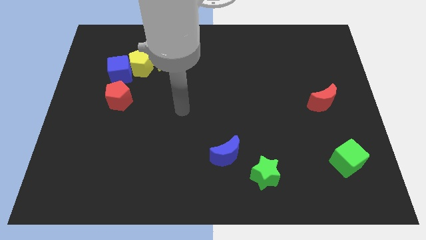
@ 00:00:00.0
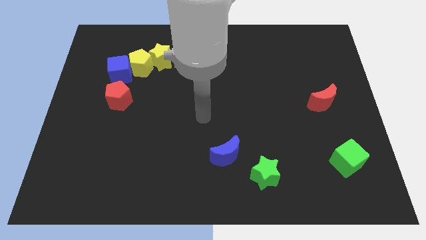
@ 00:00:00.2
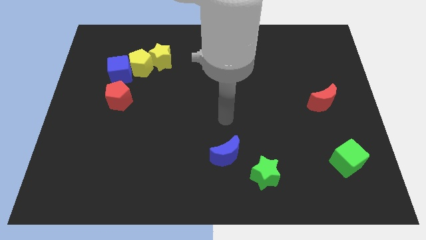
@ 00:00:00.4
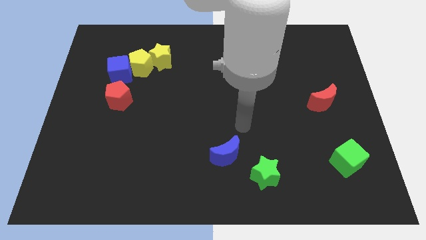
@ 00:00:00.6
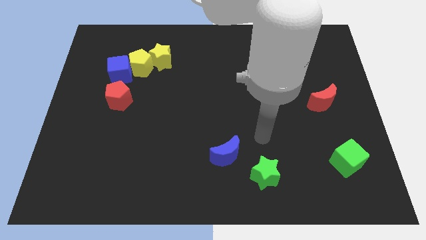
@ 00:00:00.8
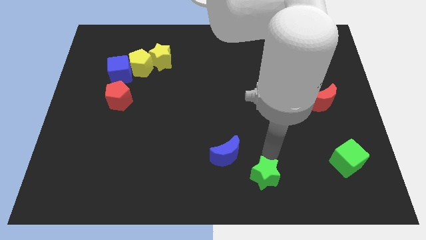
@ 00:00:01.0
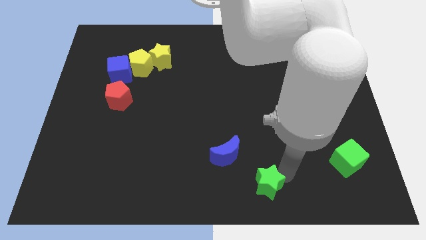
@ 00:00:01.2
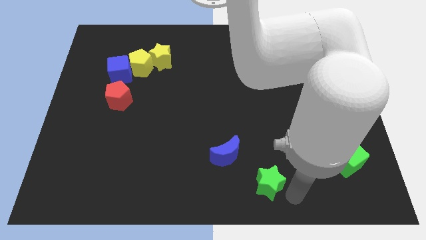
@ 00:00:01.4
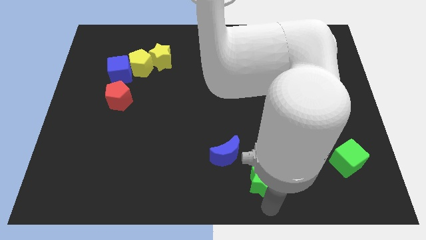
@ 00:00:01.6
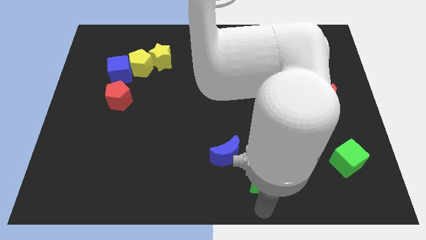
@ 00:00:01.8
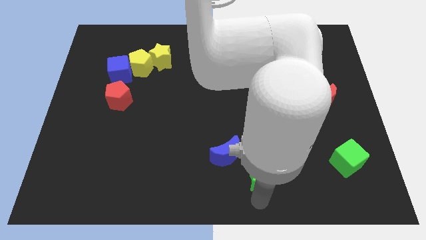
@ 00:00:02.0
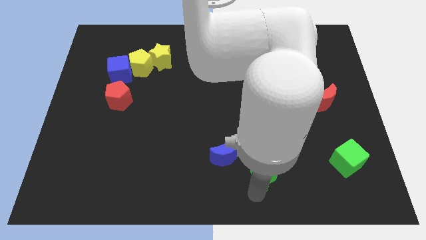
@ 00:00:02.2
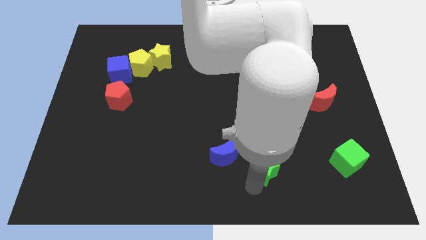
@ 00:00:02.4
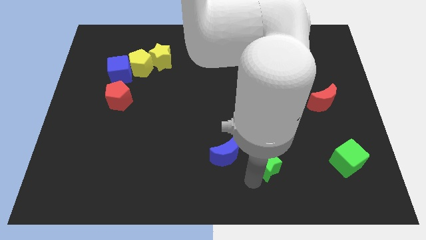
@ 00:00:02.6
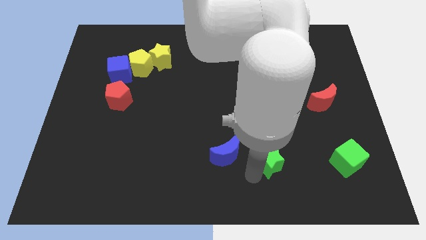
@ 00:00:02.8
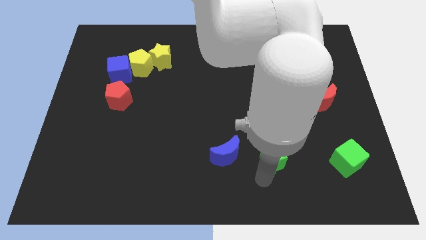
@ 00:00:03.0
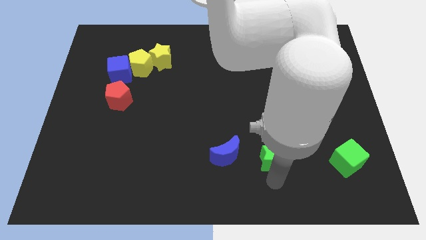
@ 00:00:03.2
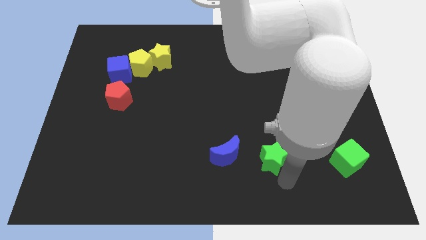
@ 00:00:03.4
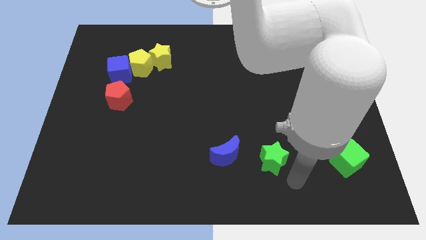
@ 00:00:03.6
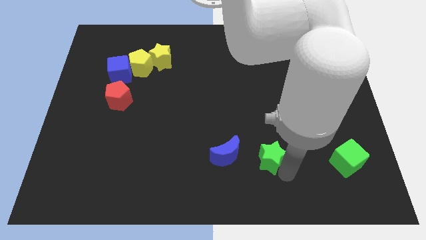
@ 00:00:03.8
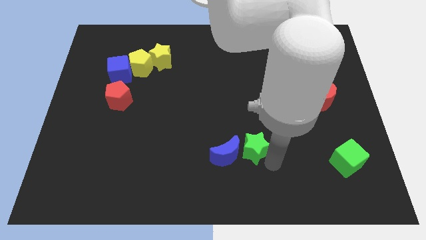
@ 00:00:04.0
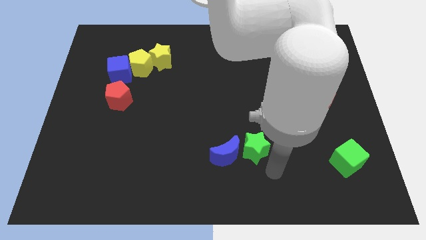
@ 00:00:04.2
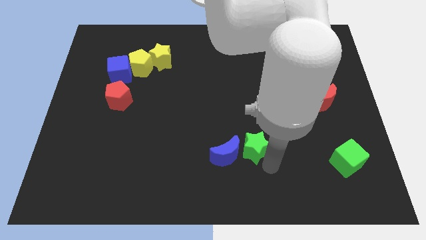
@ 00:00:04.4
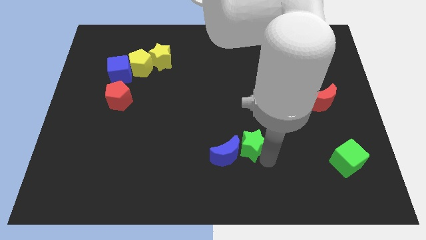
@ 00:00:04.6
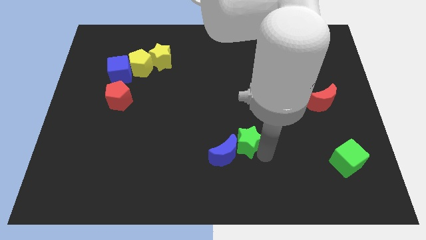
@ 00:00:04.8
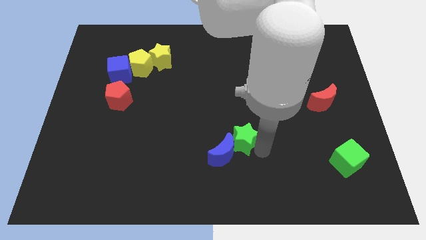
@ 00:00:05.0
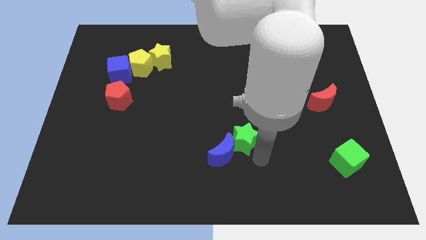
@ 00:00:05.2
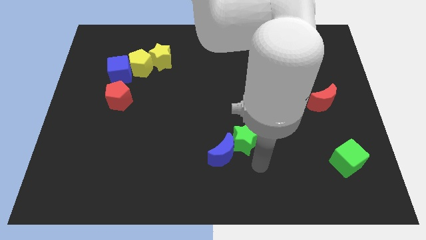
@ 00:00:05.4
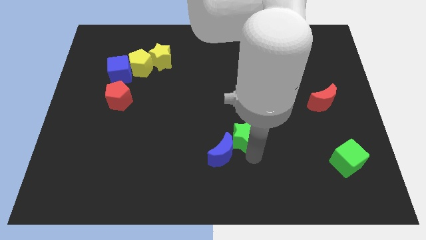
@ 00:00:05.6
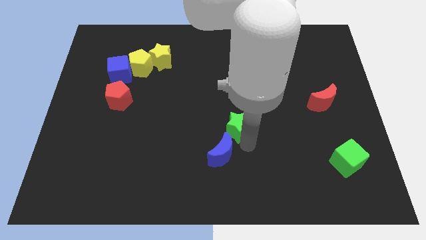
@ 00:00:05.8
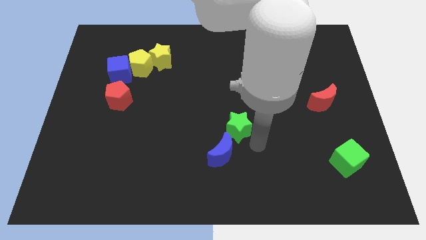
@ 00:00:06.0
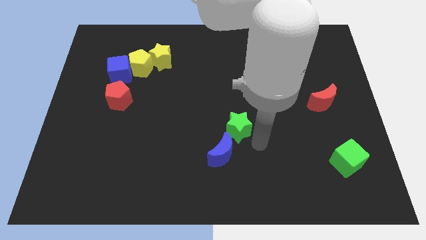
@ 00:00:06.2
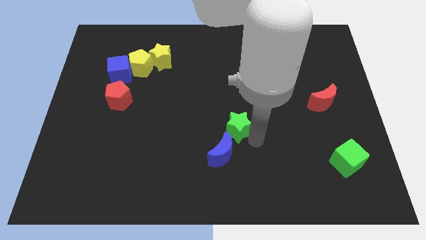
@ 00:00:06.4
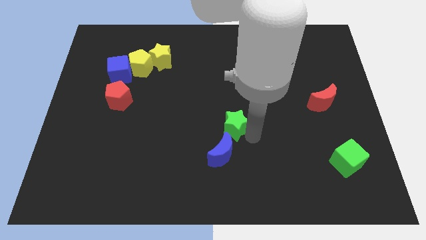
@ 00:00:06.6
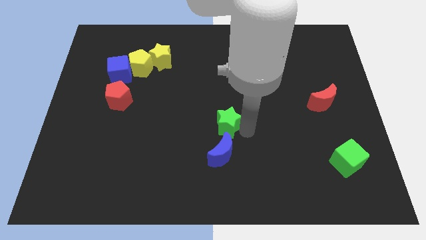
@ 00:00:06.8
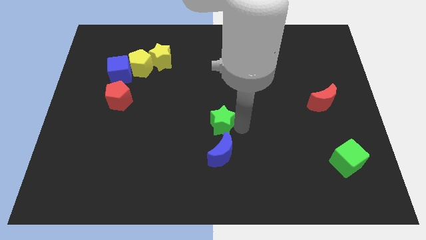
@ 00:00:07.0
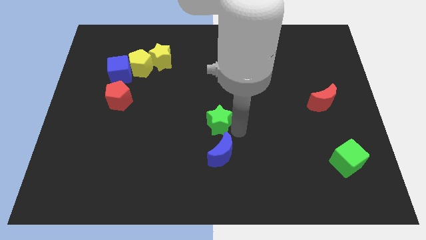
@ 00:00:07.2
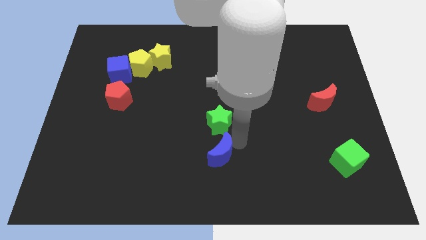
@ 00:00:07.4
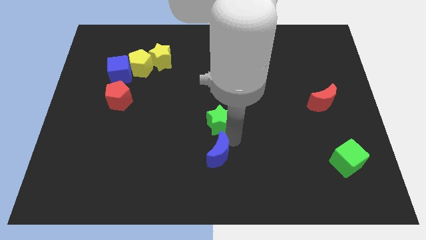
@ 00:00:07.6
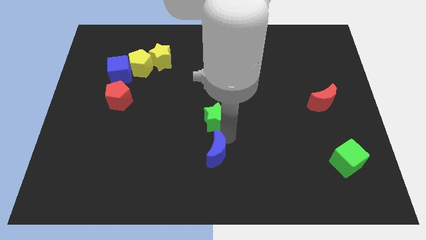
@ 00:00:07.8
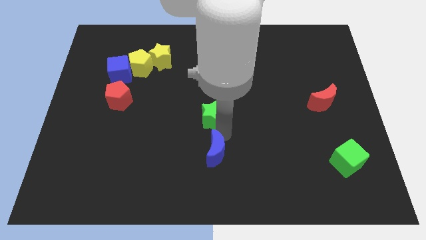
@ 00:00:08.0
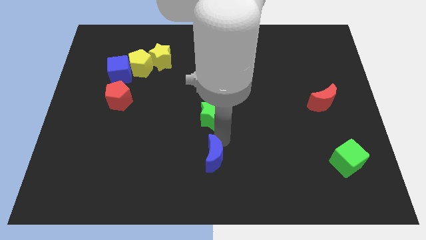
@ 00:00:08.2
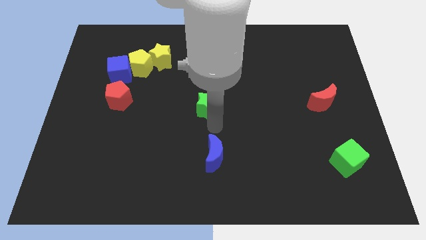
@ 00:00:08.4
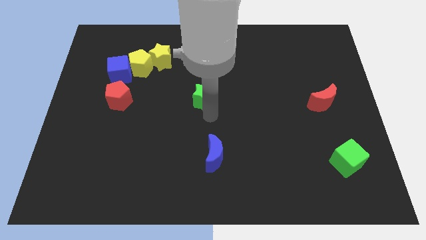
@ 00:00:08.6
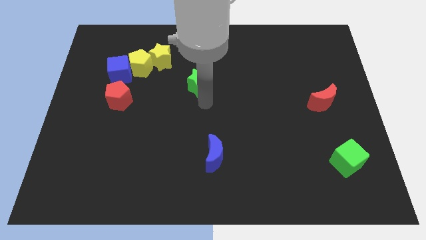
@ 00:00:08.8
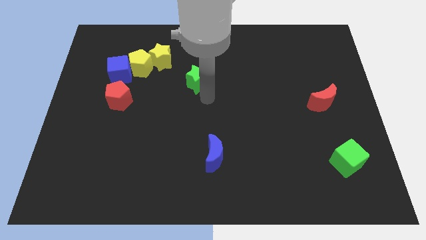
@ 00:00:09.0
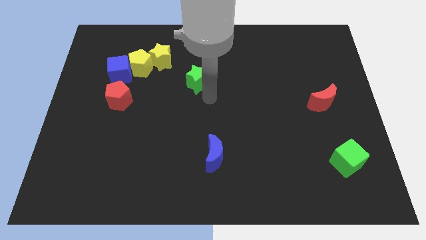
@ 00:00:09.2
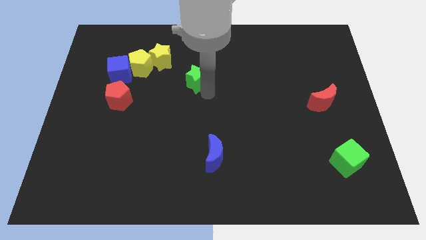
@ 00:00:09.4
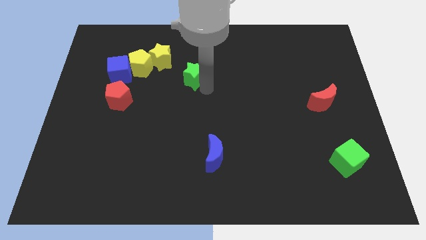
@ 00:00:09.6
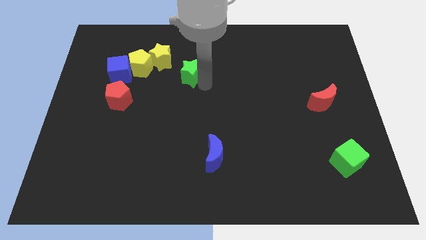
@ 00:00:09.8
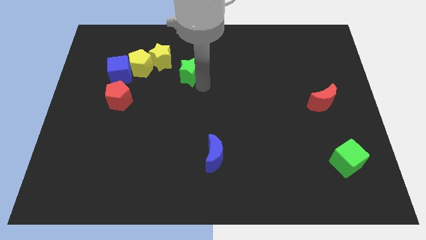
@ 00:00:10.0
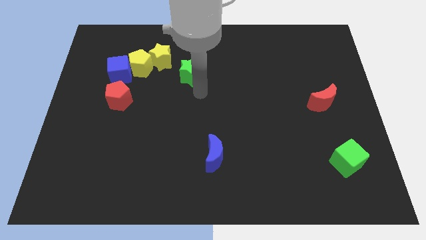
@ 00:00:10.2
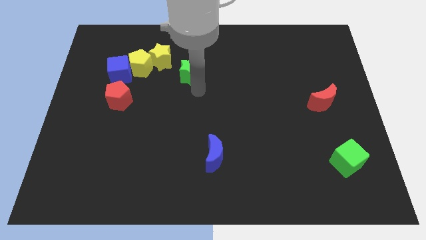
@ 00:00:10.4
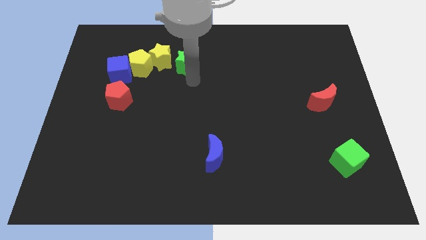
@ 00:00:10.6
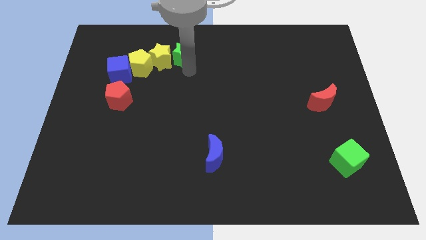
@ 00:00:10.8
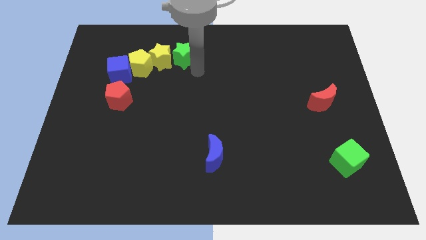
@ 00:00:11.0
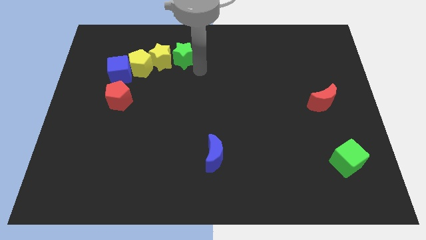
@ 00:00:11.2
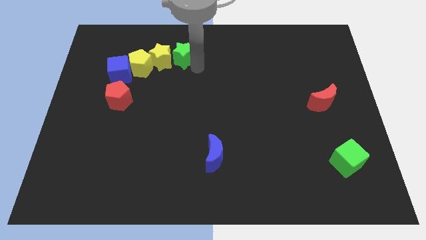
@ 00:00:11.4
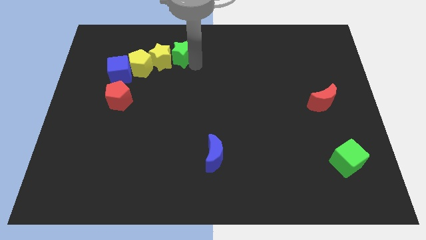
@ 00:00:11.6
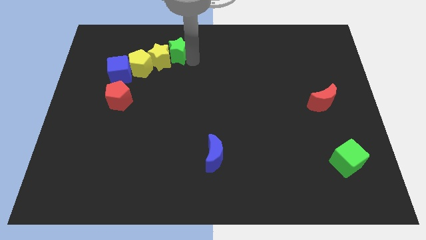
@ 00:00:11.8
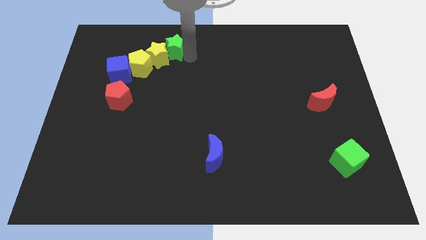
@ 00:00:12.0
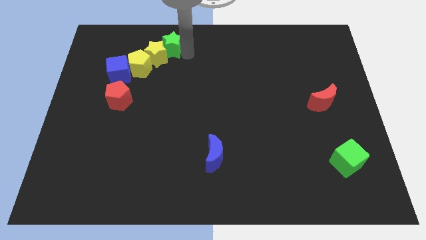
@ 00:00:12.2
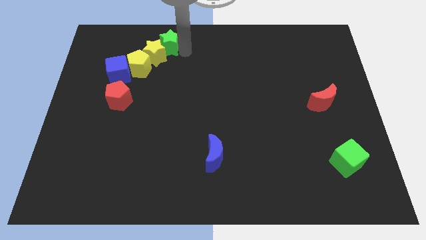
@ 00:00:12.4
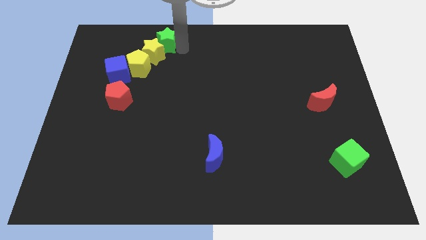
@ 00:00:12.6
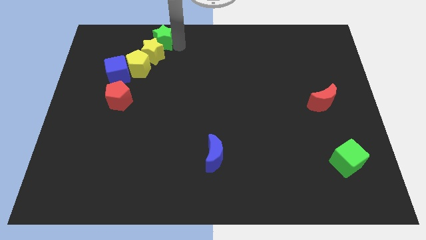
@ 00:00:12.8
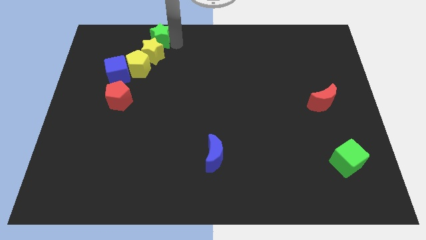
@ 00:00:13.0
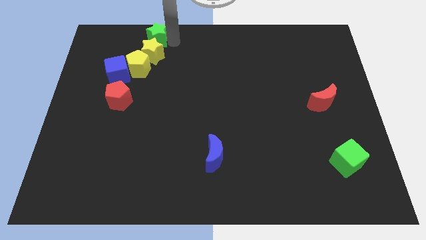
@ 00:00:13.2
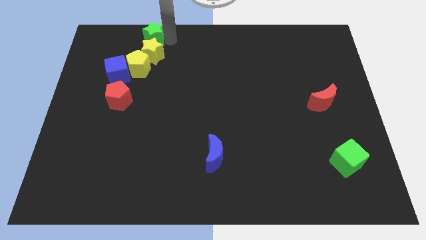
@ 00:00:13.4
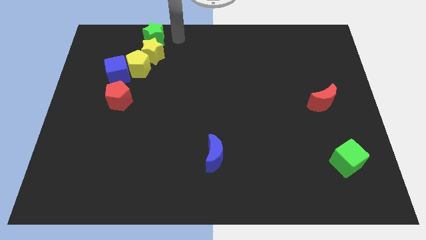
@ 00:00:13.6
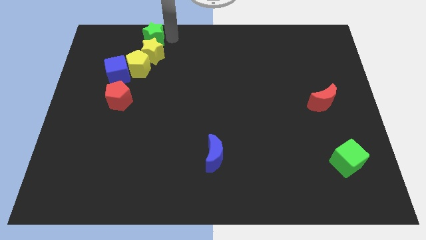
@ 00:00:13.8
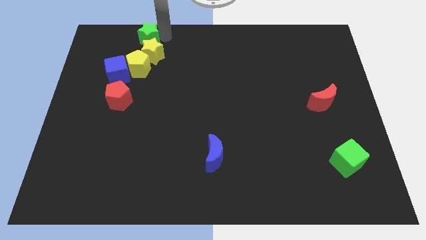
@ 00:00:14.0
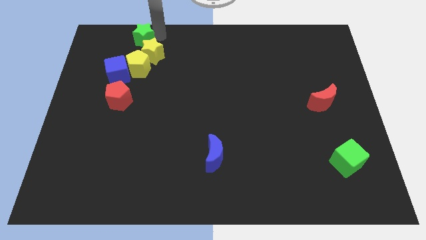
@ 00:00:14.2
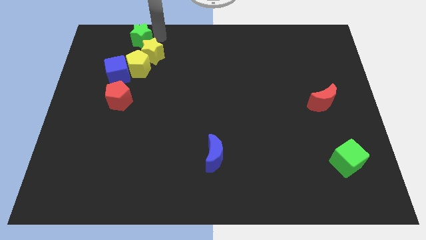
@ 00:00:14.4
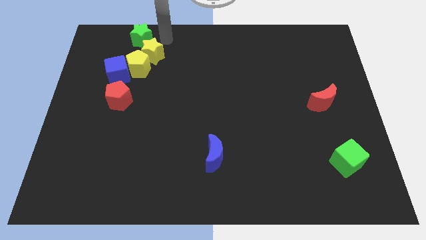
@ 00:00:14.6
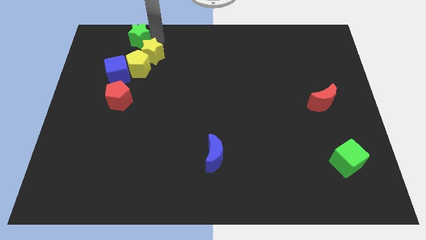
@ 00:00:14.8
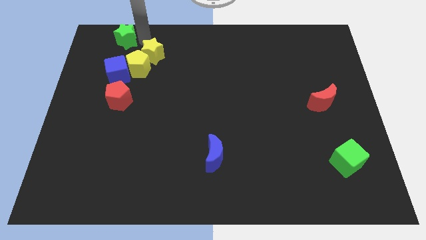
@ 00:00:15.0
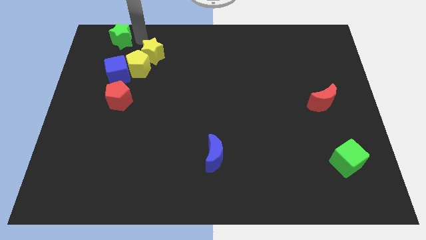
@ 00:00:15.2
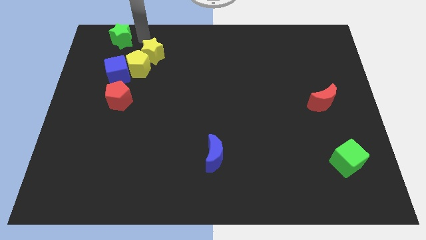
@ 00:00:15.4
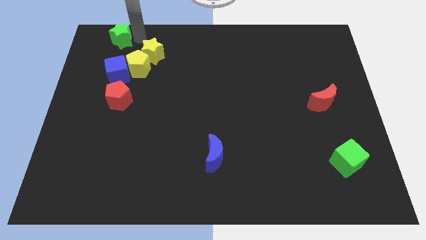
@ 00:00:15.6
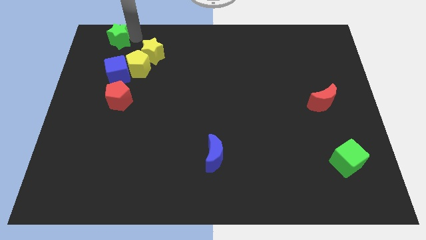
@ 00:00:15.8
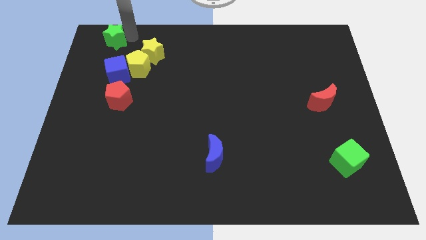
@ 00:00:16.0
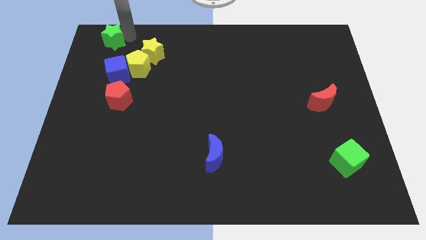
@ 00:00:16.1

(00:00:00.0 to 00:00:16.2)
push the green star to the top left of the board
